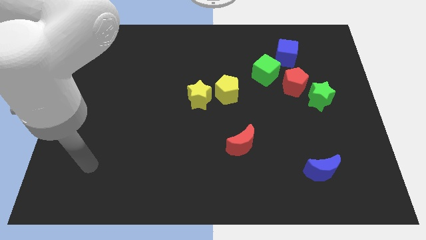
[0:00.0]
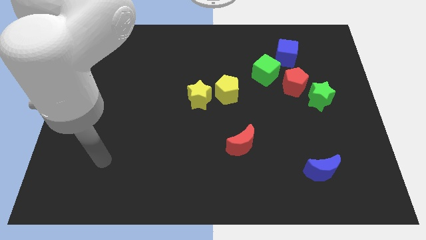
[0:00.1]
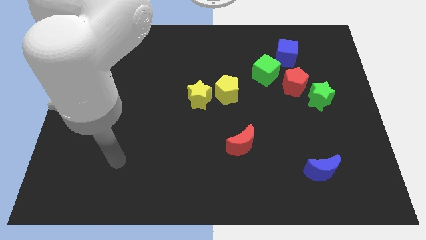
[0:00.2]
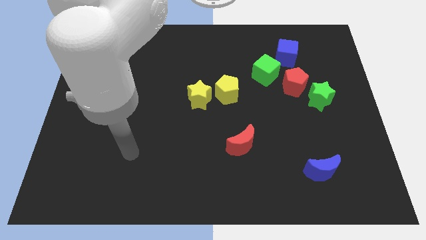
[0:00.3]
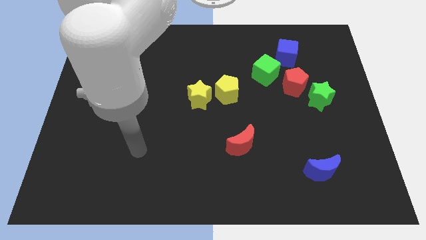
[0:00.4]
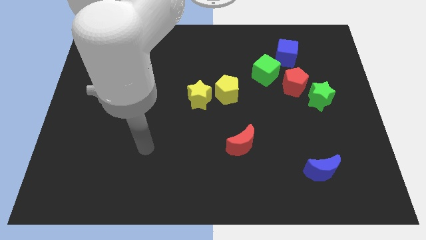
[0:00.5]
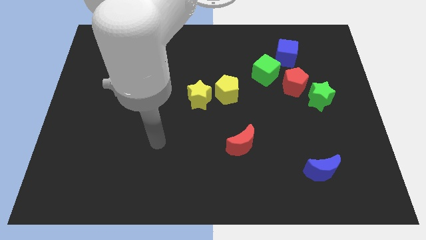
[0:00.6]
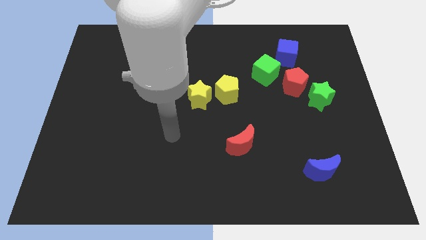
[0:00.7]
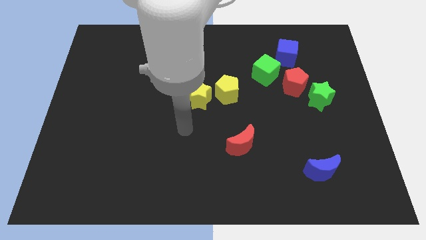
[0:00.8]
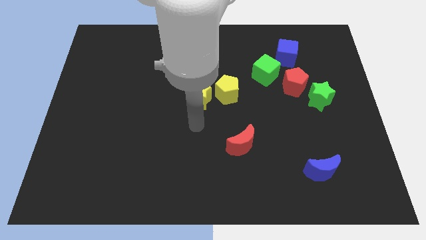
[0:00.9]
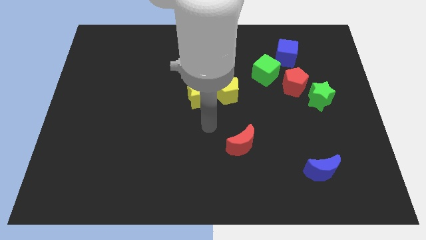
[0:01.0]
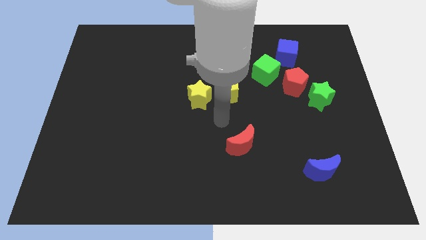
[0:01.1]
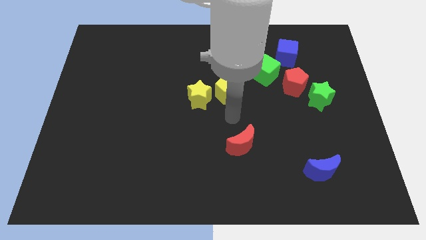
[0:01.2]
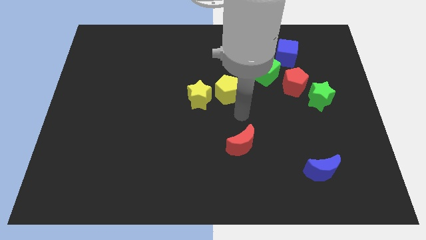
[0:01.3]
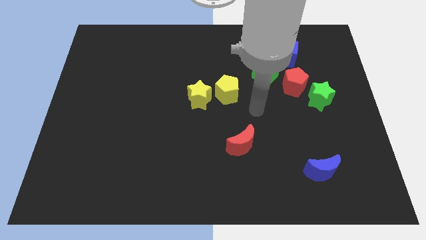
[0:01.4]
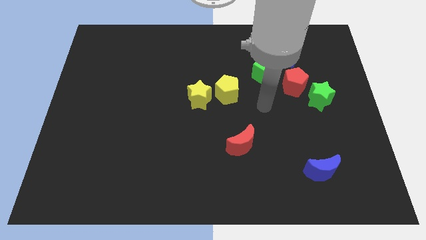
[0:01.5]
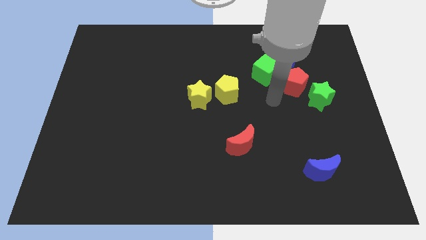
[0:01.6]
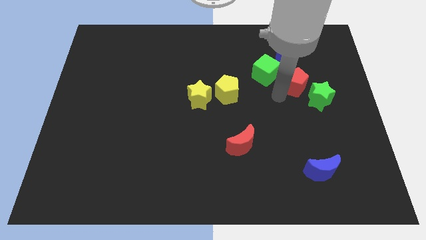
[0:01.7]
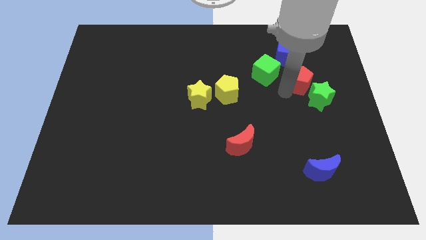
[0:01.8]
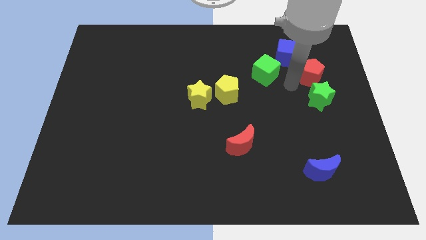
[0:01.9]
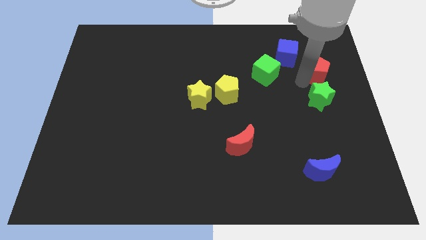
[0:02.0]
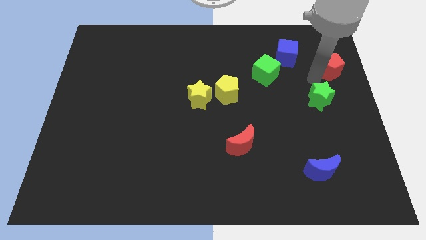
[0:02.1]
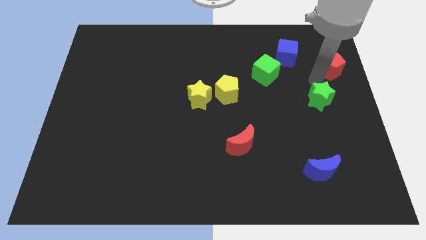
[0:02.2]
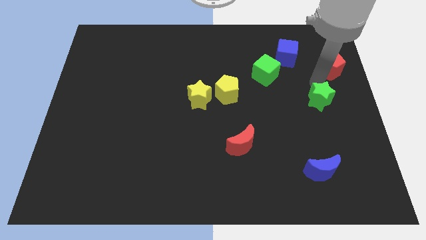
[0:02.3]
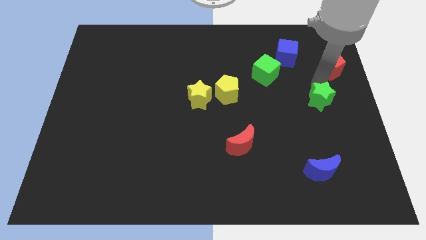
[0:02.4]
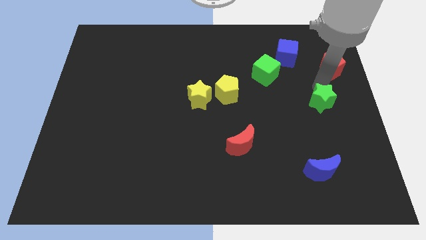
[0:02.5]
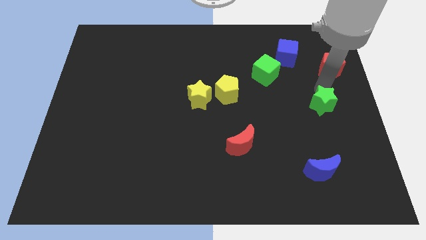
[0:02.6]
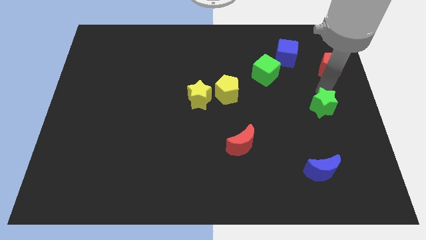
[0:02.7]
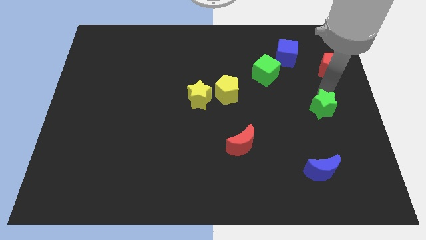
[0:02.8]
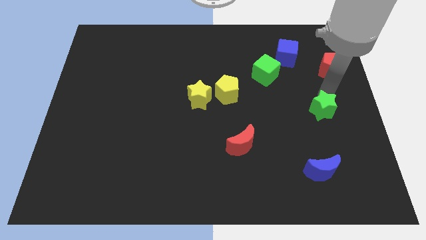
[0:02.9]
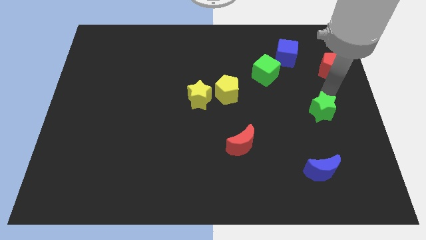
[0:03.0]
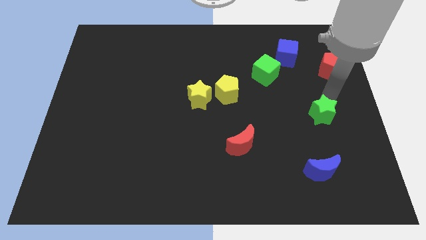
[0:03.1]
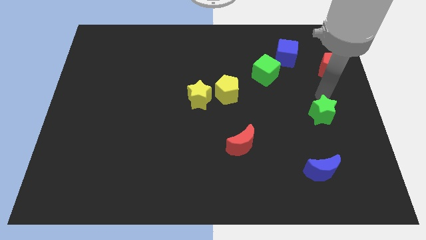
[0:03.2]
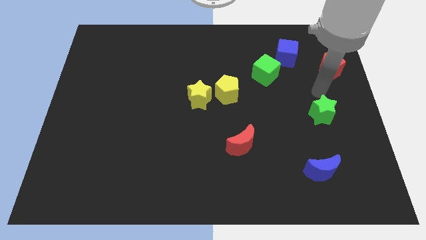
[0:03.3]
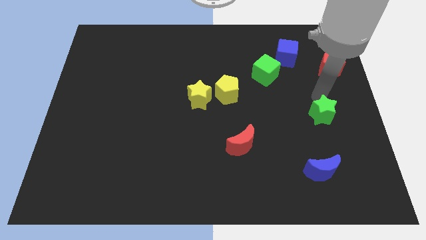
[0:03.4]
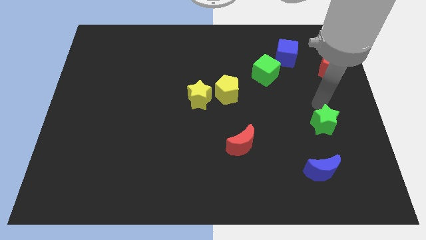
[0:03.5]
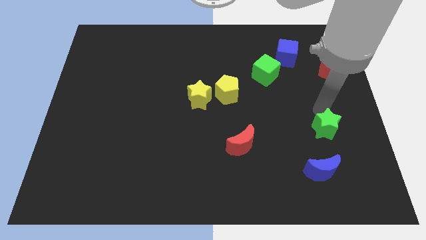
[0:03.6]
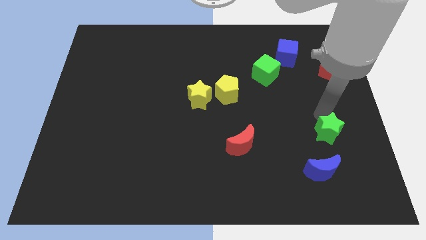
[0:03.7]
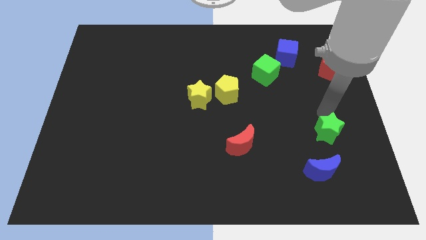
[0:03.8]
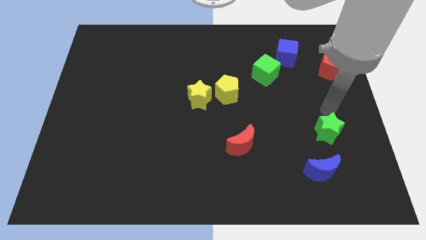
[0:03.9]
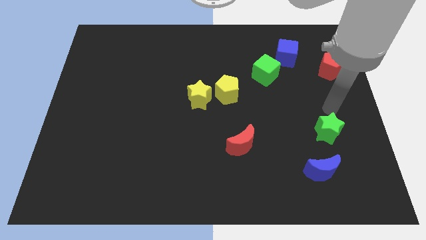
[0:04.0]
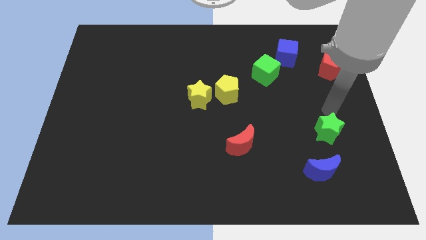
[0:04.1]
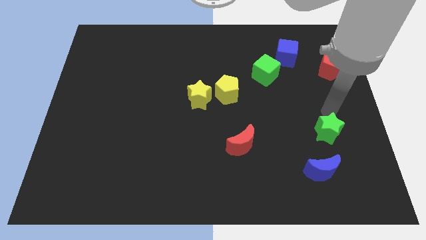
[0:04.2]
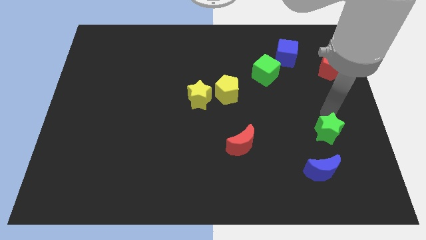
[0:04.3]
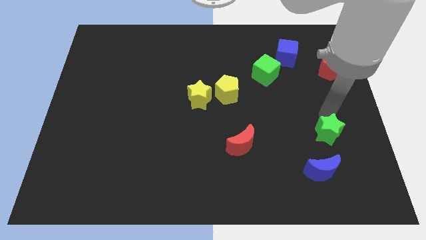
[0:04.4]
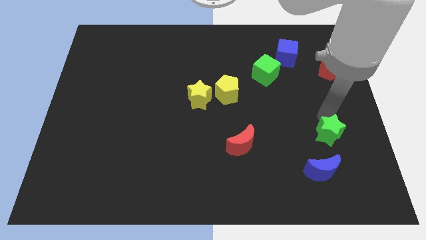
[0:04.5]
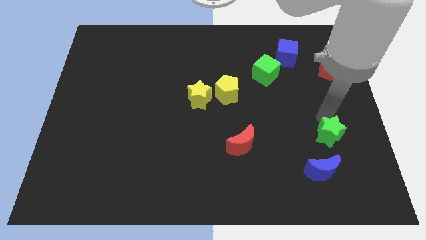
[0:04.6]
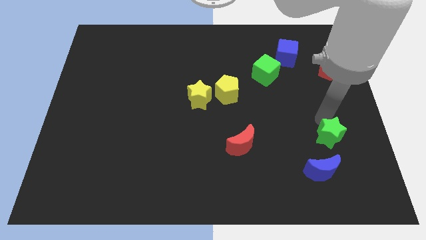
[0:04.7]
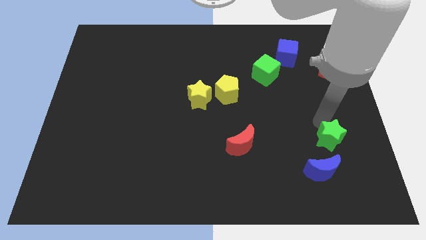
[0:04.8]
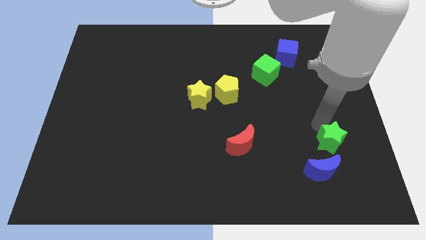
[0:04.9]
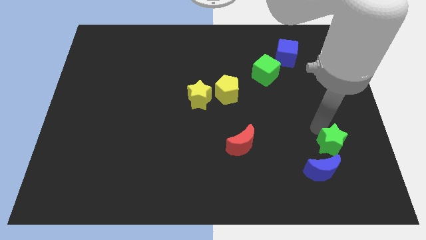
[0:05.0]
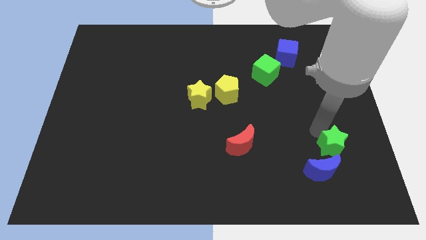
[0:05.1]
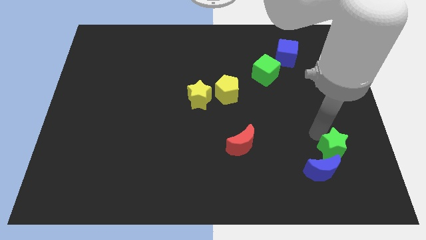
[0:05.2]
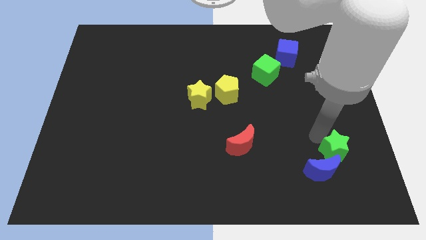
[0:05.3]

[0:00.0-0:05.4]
push the green star towards the blue moon

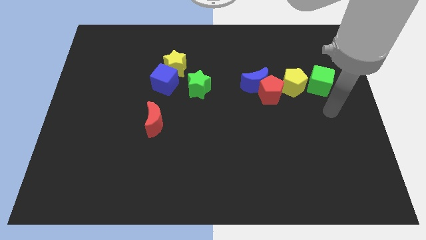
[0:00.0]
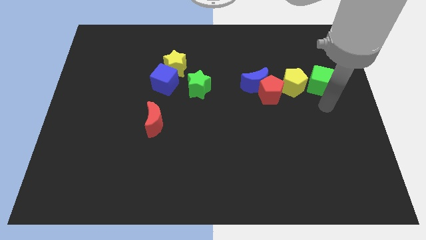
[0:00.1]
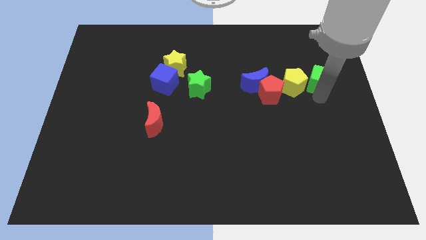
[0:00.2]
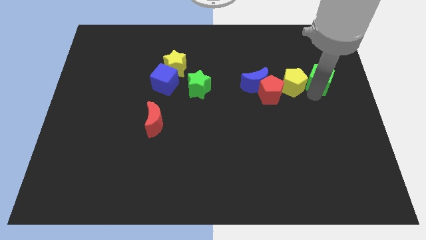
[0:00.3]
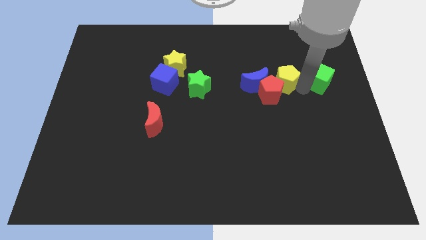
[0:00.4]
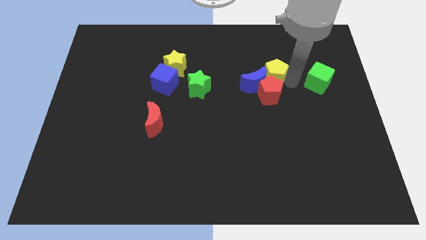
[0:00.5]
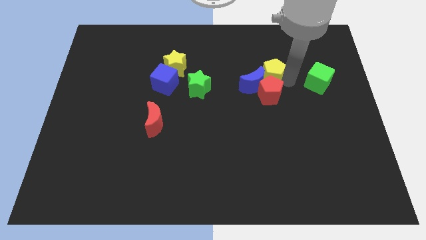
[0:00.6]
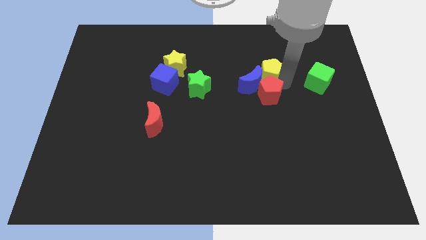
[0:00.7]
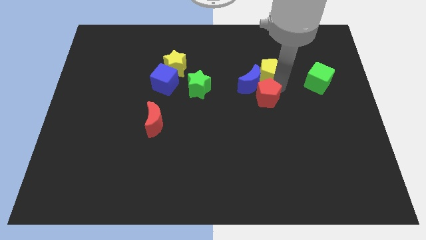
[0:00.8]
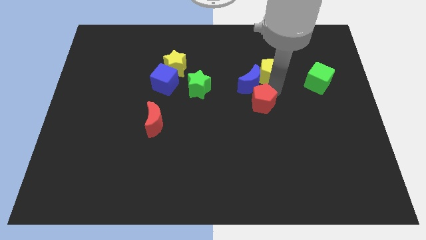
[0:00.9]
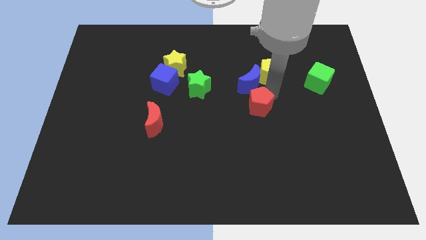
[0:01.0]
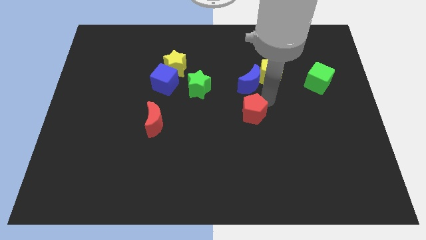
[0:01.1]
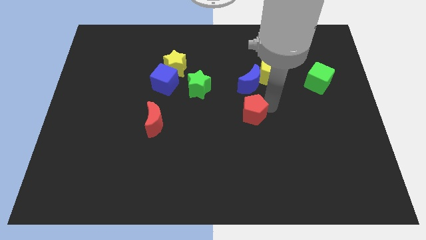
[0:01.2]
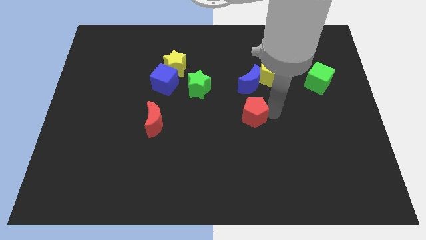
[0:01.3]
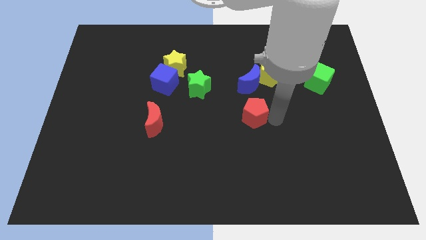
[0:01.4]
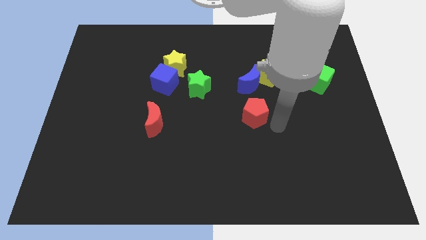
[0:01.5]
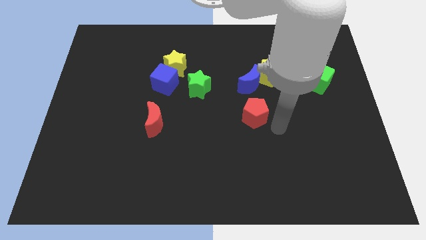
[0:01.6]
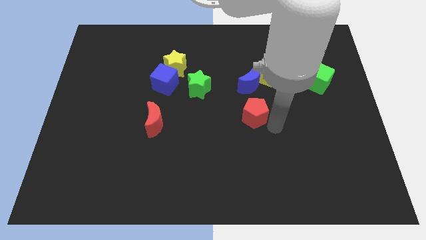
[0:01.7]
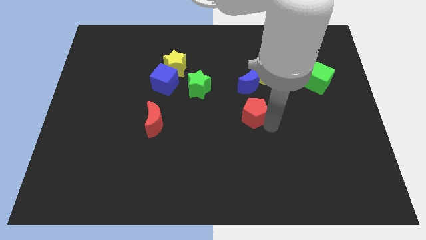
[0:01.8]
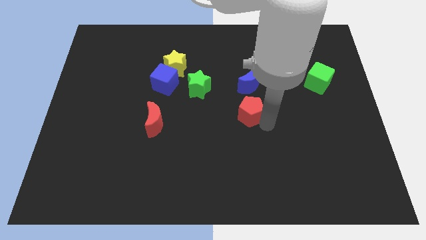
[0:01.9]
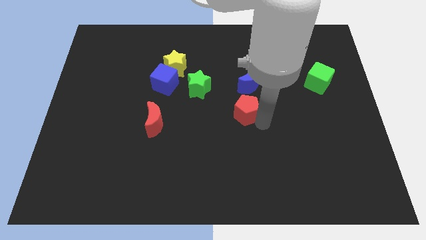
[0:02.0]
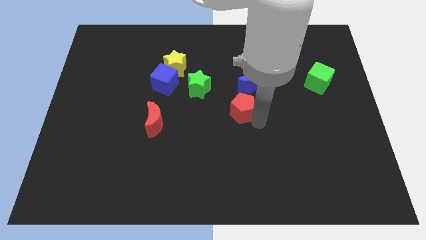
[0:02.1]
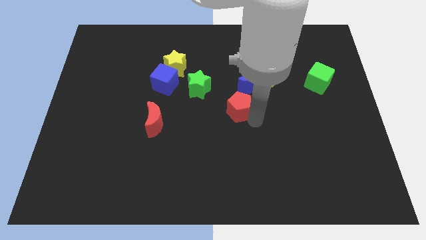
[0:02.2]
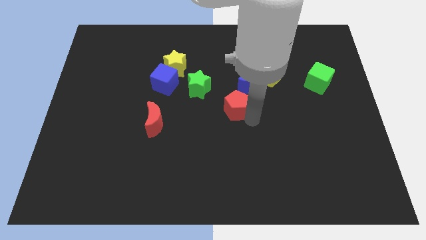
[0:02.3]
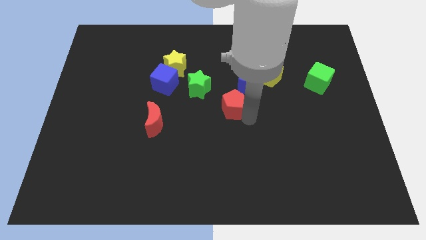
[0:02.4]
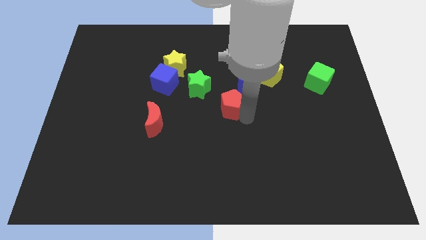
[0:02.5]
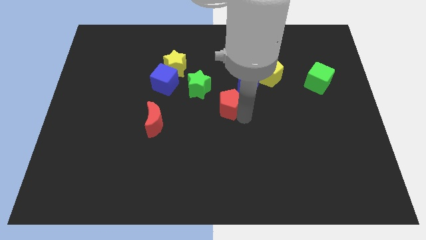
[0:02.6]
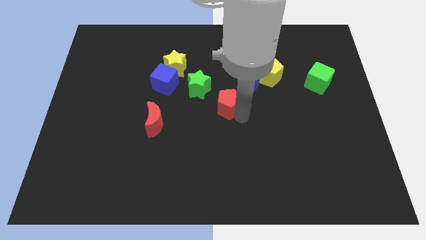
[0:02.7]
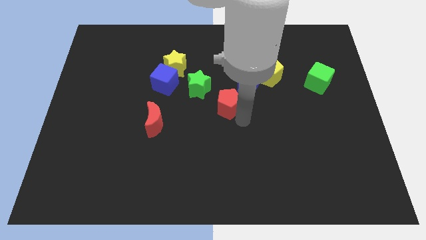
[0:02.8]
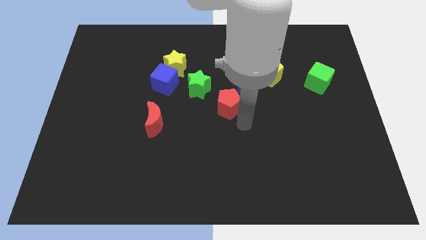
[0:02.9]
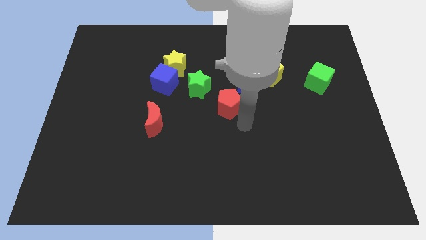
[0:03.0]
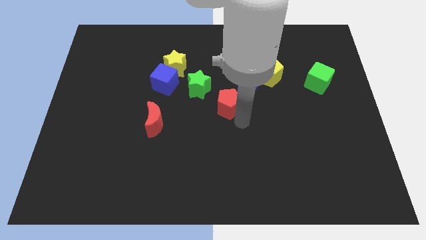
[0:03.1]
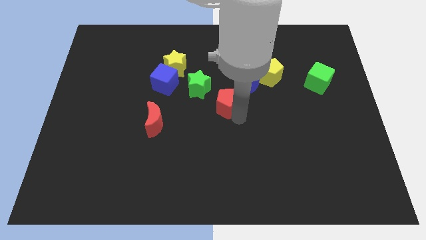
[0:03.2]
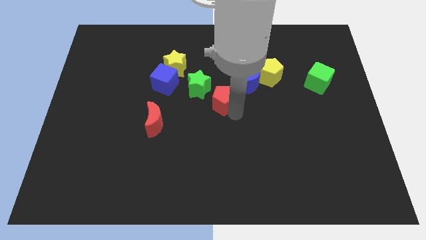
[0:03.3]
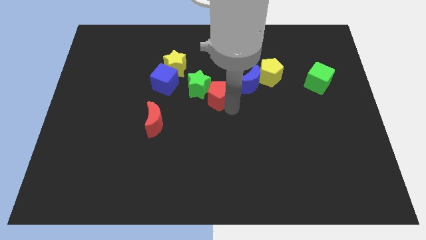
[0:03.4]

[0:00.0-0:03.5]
put the red pentagon close to the green star
